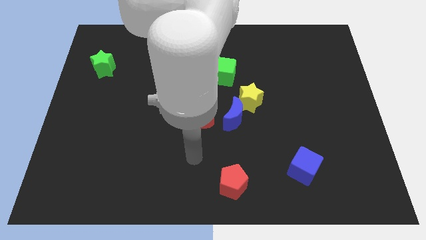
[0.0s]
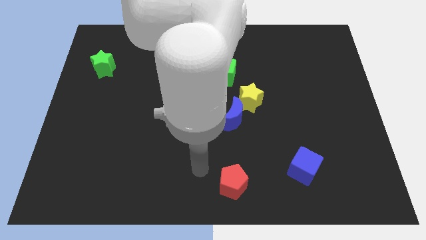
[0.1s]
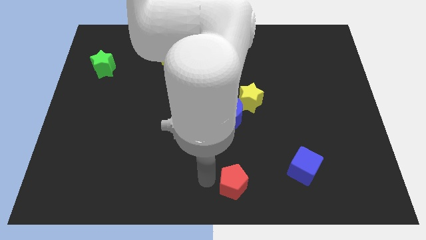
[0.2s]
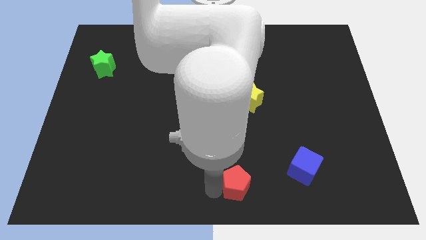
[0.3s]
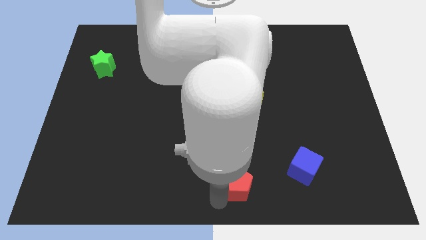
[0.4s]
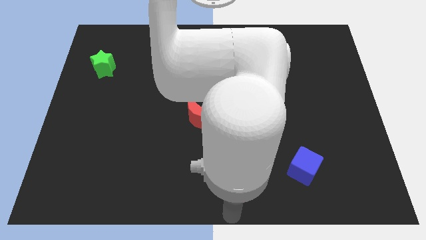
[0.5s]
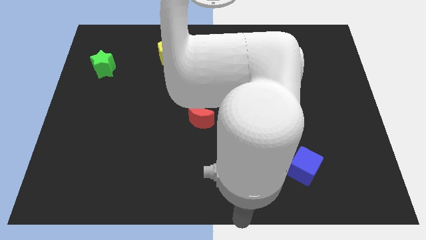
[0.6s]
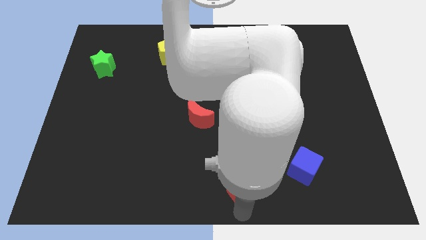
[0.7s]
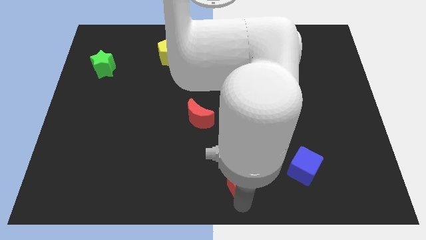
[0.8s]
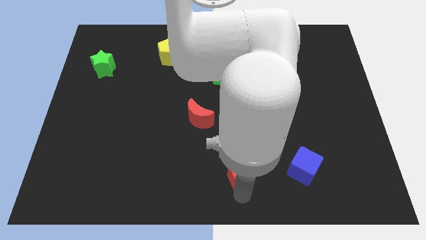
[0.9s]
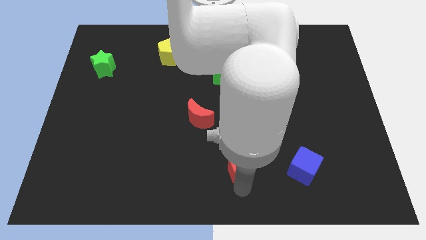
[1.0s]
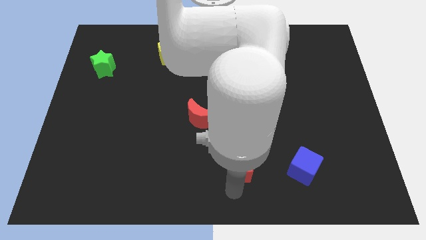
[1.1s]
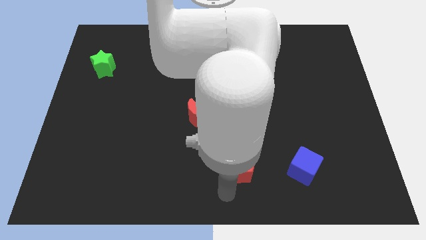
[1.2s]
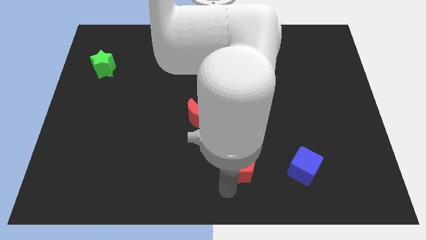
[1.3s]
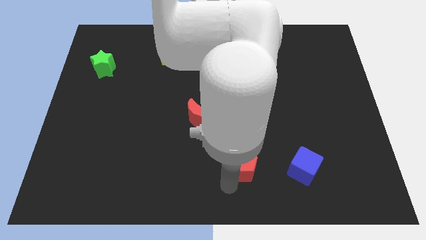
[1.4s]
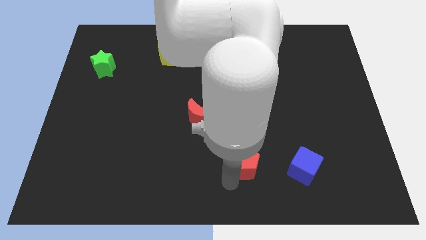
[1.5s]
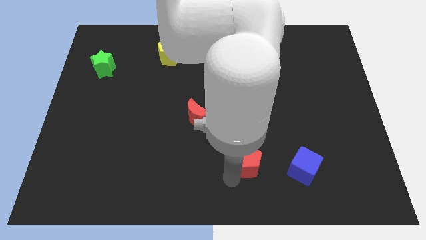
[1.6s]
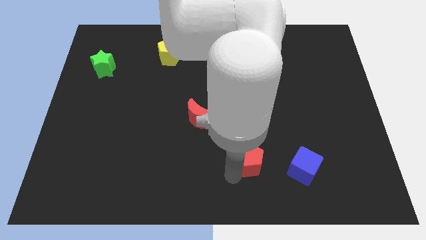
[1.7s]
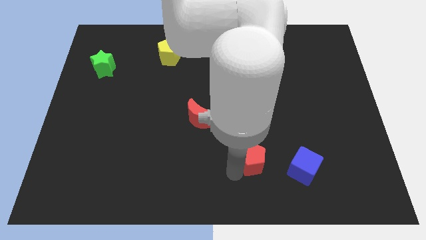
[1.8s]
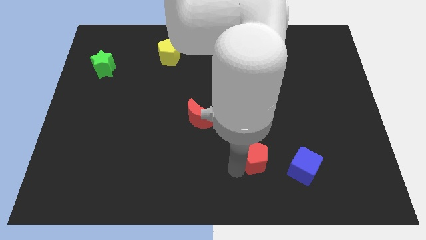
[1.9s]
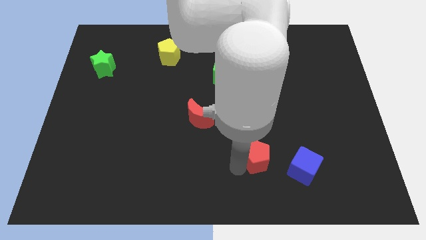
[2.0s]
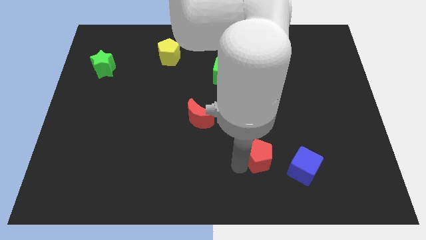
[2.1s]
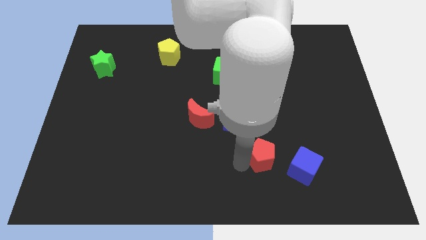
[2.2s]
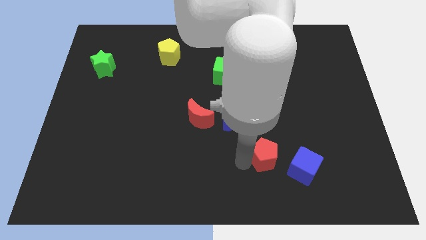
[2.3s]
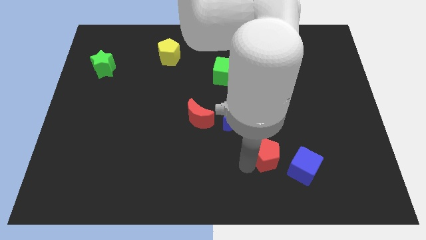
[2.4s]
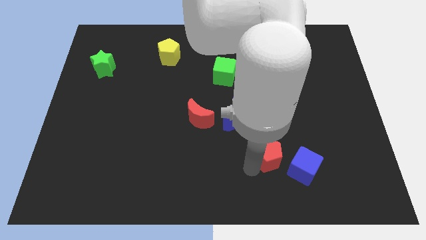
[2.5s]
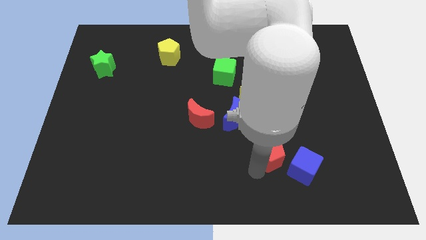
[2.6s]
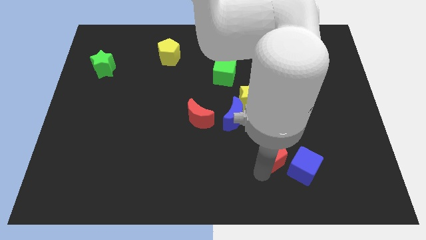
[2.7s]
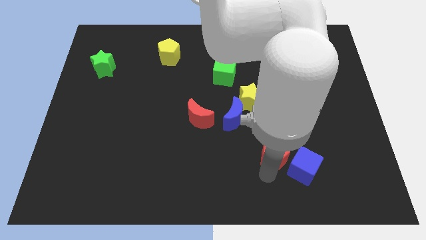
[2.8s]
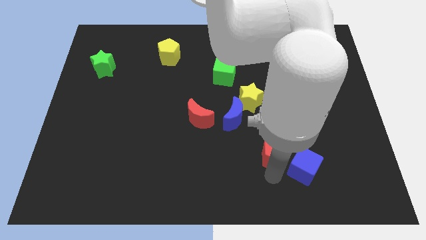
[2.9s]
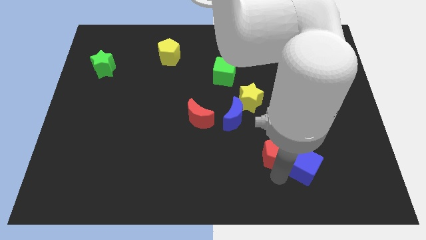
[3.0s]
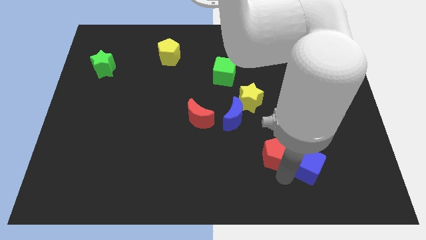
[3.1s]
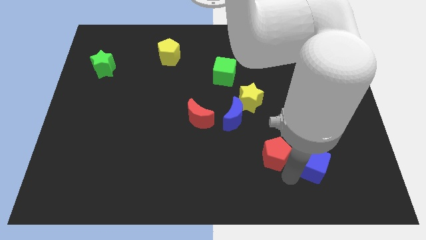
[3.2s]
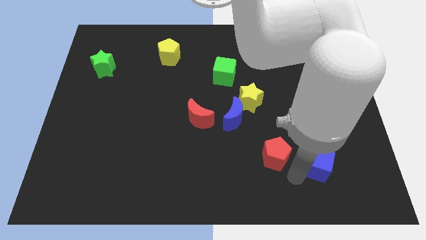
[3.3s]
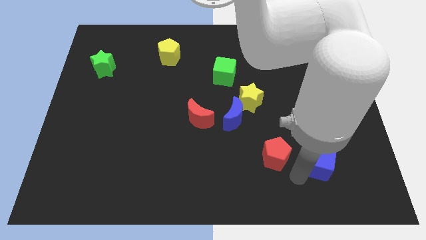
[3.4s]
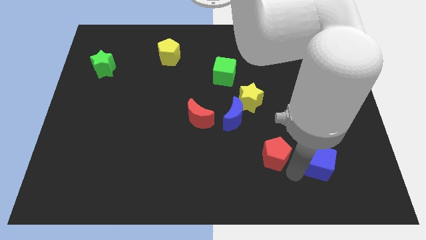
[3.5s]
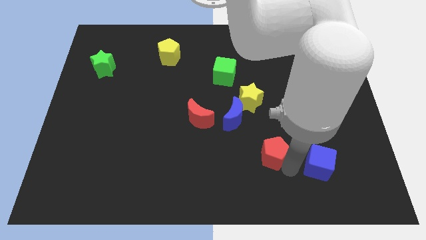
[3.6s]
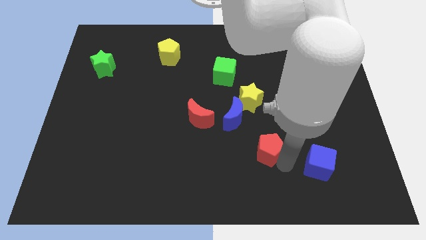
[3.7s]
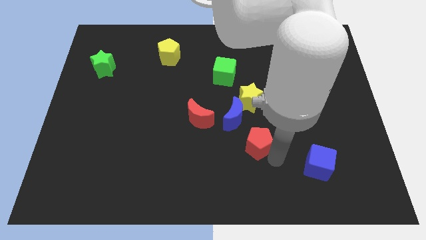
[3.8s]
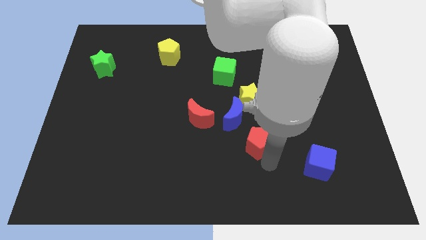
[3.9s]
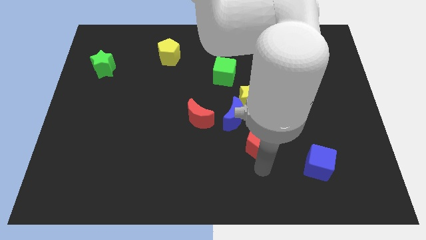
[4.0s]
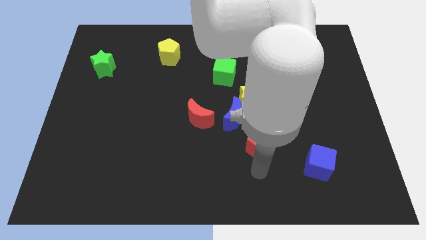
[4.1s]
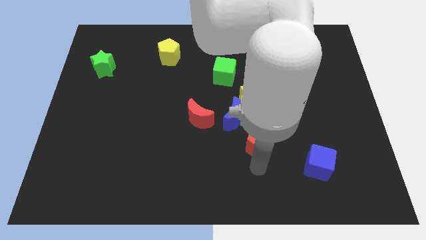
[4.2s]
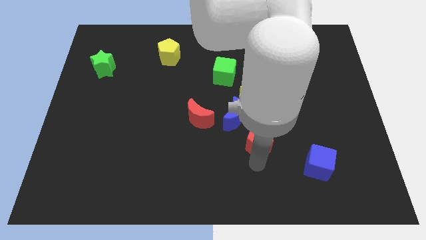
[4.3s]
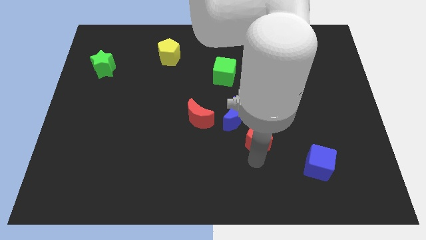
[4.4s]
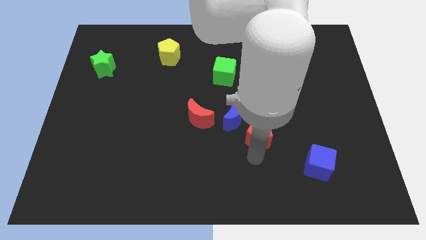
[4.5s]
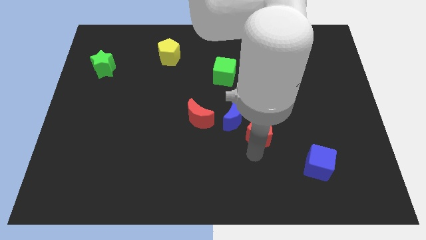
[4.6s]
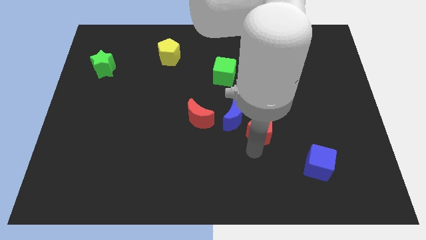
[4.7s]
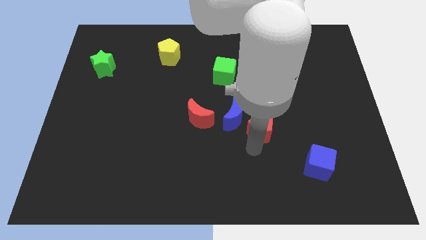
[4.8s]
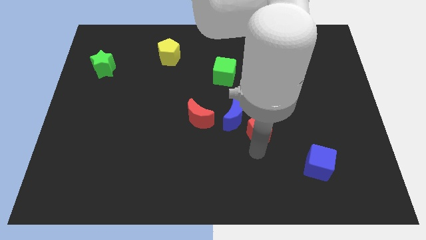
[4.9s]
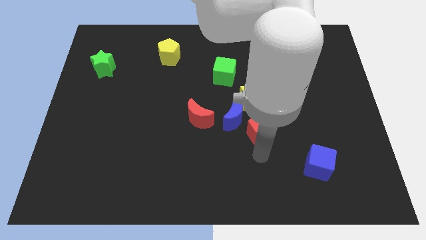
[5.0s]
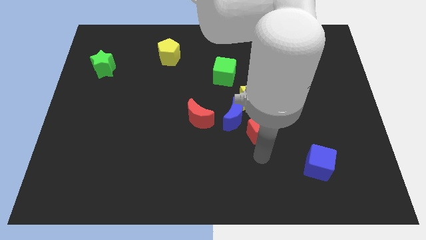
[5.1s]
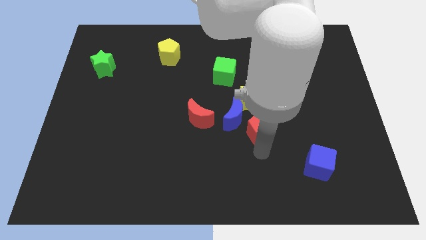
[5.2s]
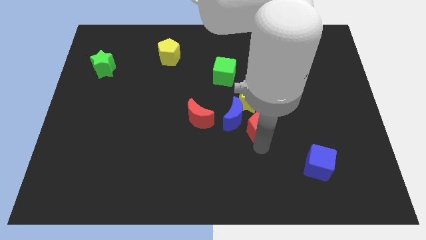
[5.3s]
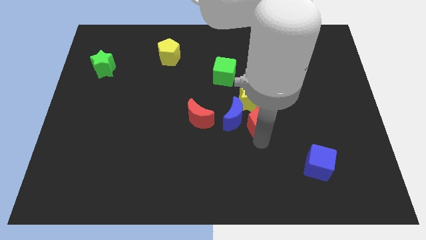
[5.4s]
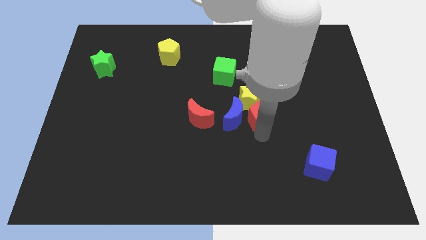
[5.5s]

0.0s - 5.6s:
push the red pentagon next to the yellow star

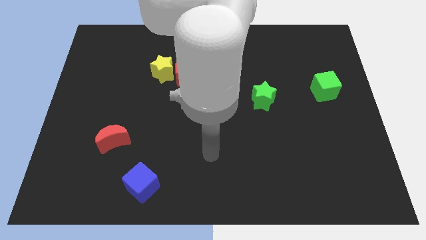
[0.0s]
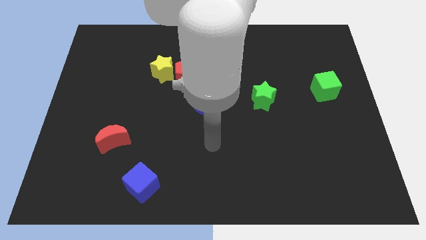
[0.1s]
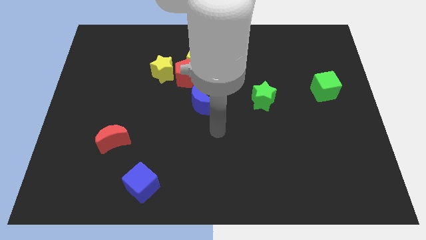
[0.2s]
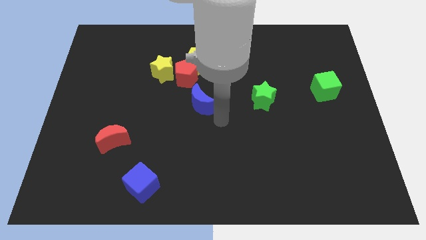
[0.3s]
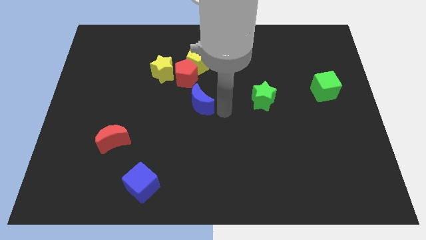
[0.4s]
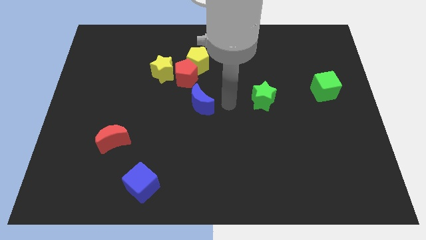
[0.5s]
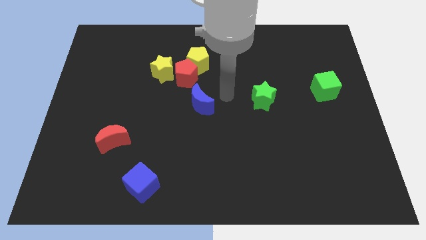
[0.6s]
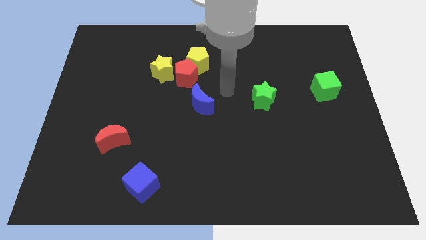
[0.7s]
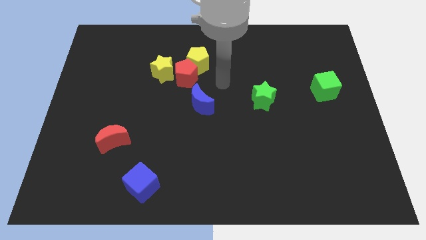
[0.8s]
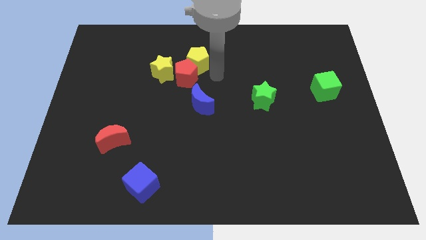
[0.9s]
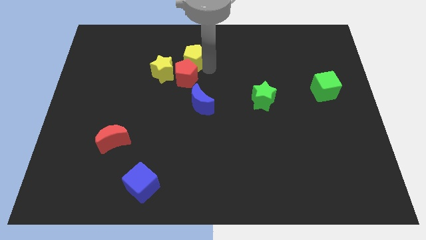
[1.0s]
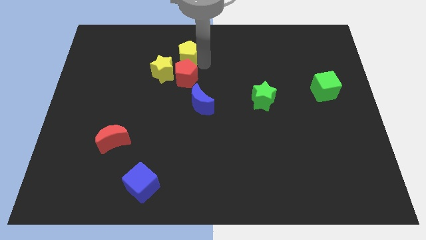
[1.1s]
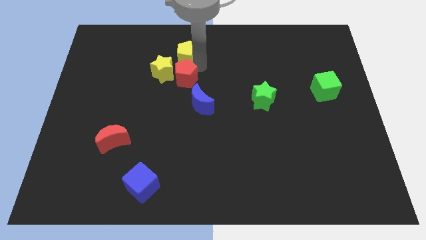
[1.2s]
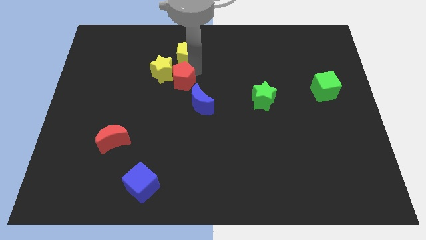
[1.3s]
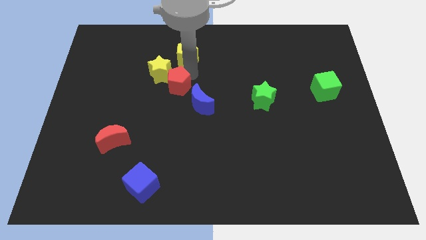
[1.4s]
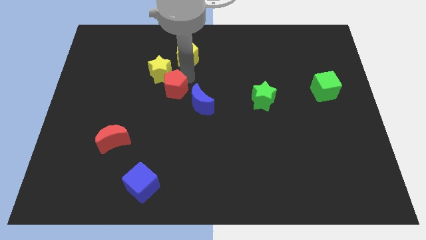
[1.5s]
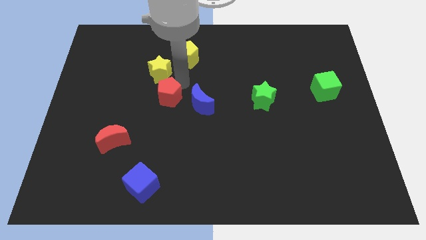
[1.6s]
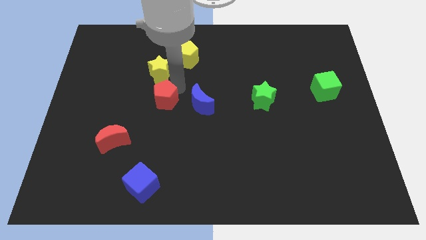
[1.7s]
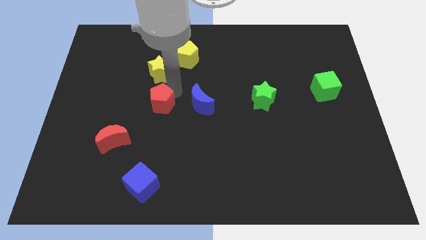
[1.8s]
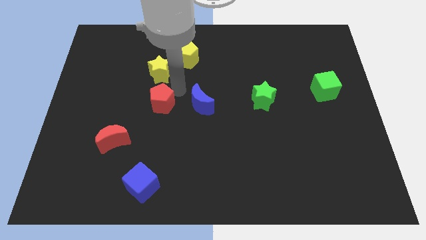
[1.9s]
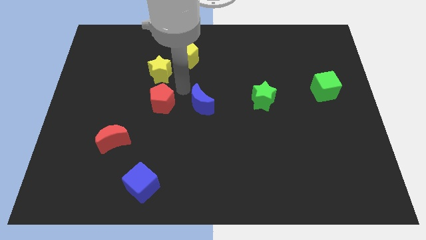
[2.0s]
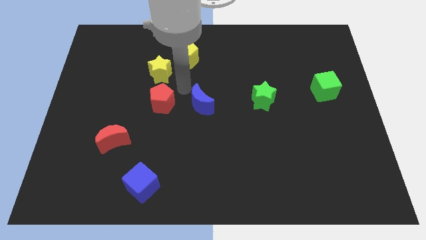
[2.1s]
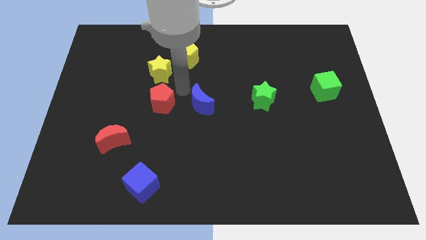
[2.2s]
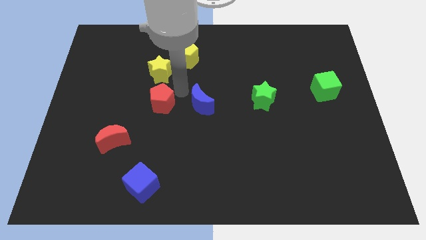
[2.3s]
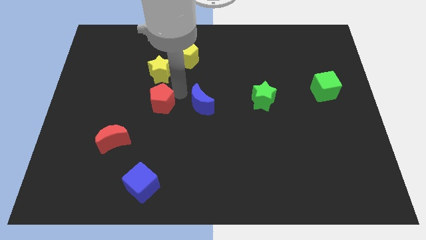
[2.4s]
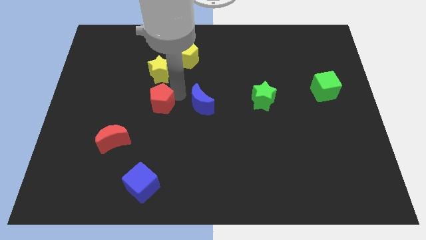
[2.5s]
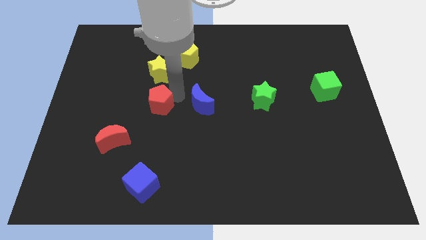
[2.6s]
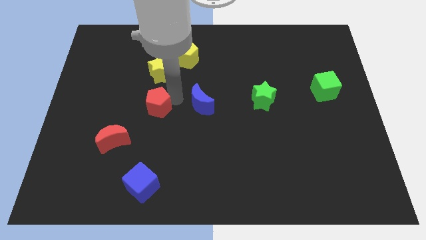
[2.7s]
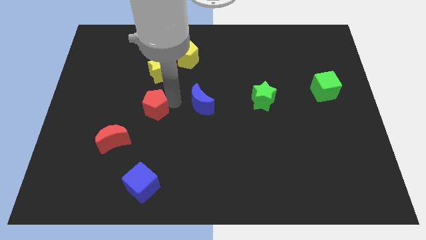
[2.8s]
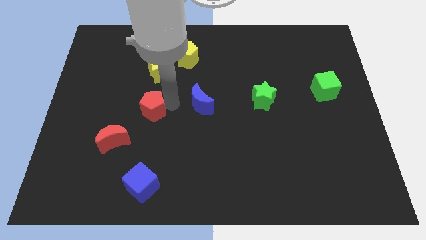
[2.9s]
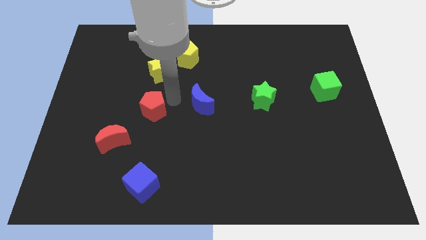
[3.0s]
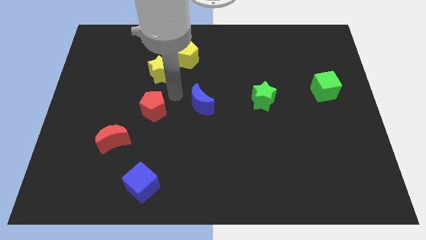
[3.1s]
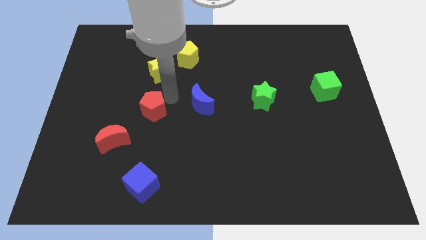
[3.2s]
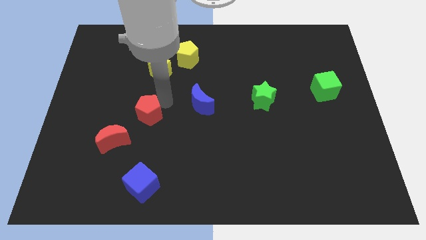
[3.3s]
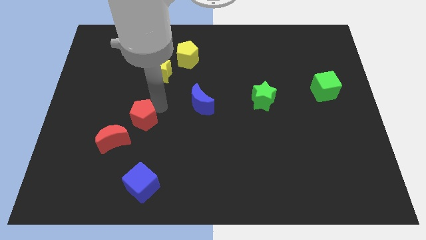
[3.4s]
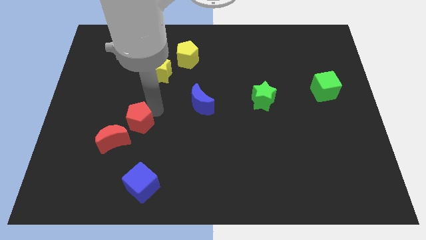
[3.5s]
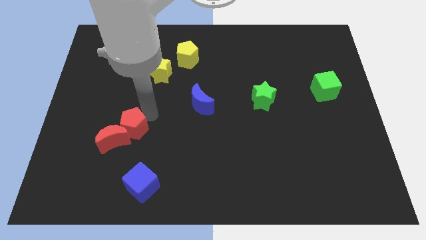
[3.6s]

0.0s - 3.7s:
move the red pentagon towards the red moon
